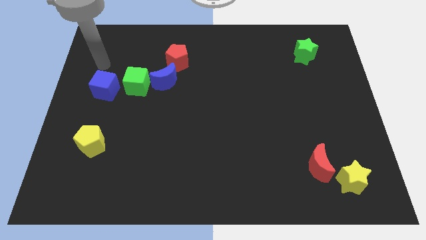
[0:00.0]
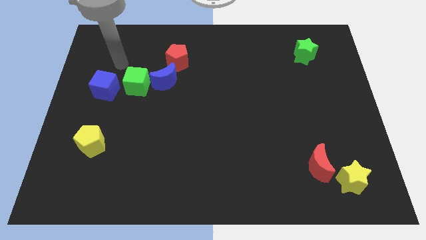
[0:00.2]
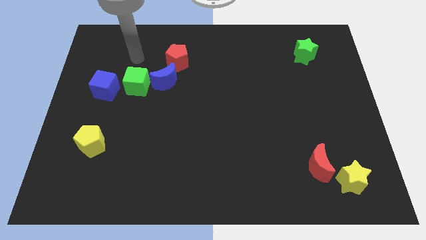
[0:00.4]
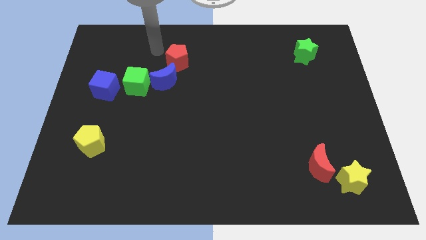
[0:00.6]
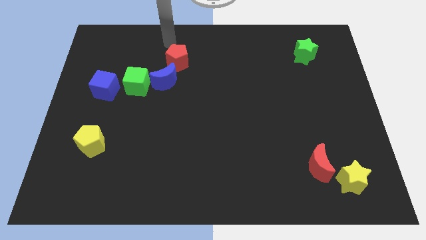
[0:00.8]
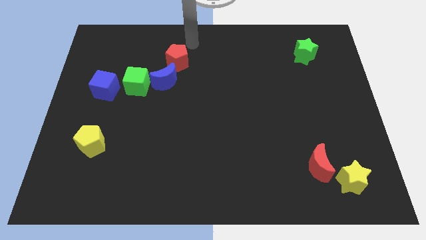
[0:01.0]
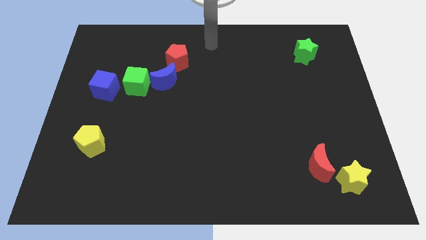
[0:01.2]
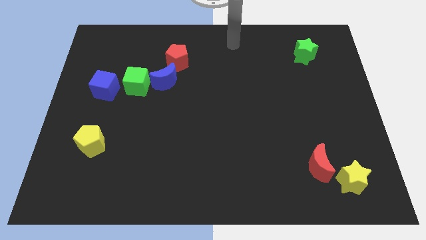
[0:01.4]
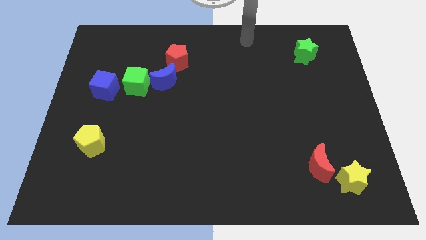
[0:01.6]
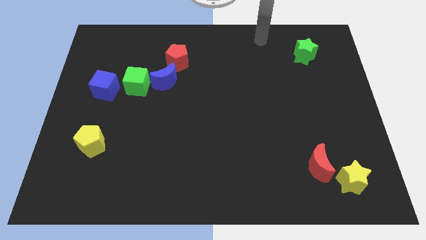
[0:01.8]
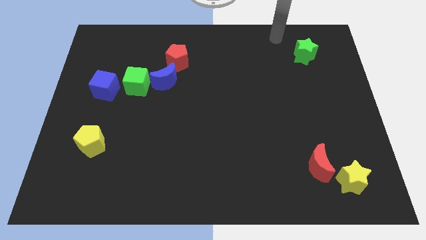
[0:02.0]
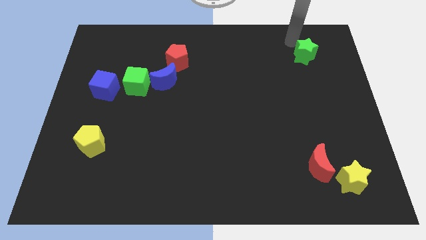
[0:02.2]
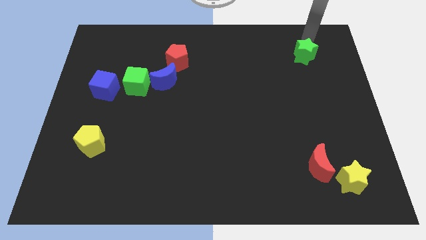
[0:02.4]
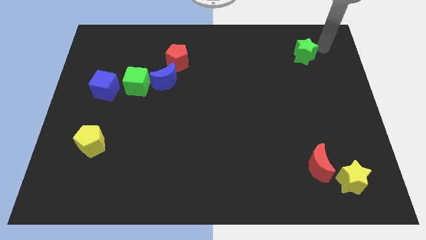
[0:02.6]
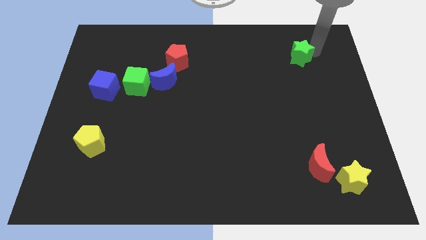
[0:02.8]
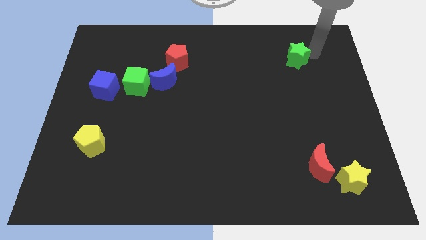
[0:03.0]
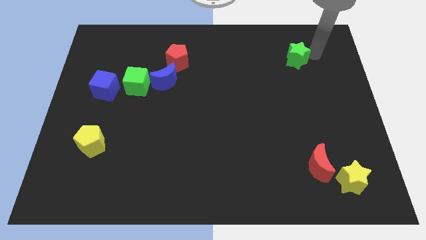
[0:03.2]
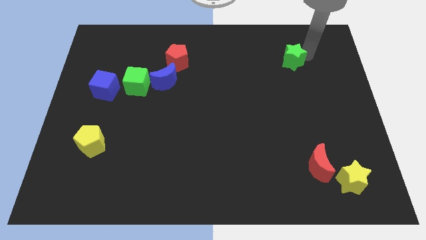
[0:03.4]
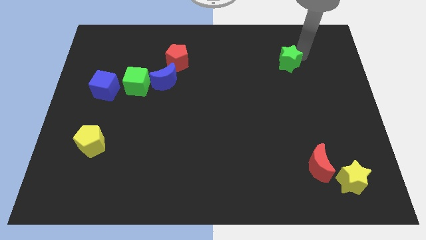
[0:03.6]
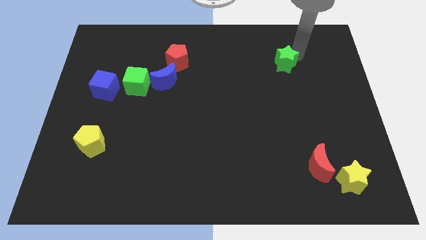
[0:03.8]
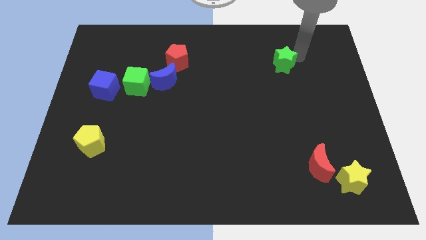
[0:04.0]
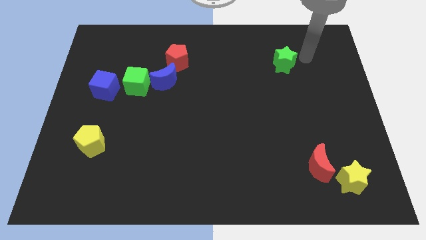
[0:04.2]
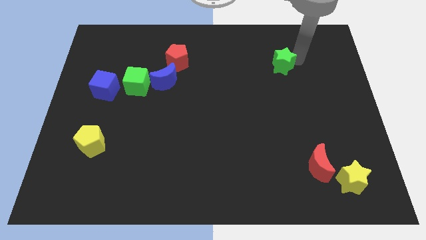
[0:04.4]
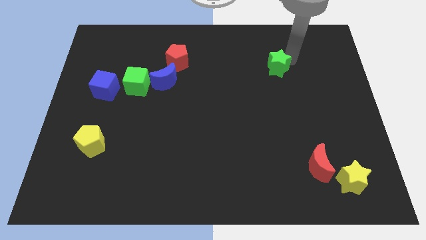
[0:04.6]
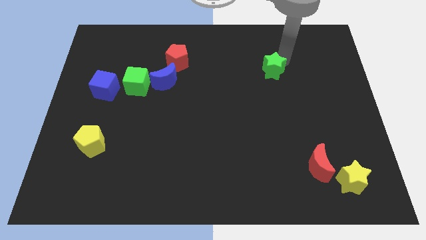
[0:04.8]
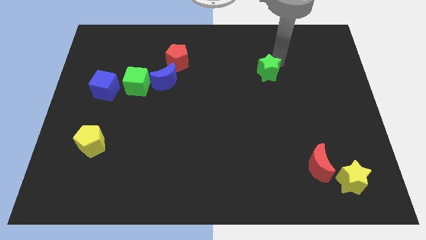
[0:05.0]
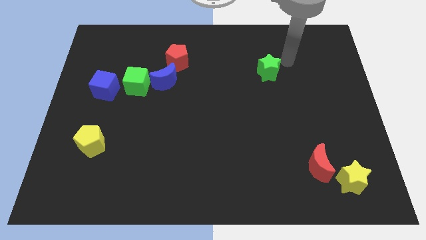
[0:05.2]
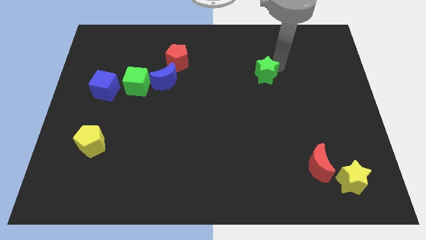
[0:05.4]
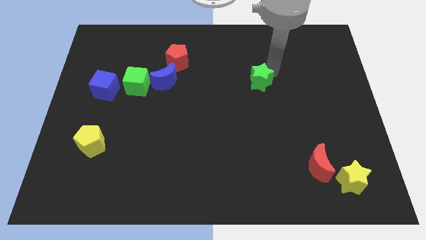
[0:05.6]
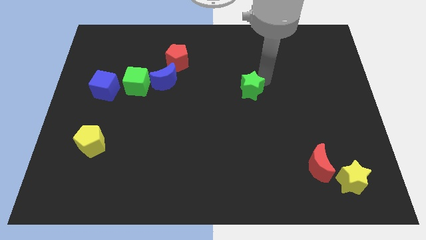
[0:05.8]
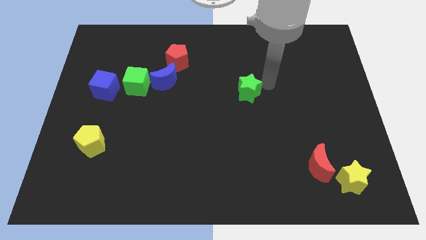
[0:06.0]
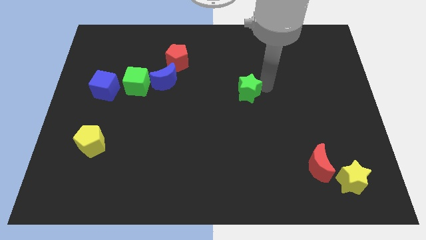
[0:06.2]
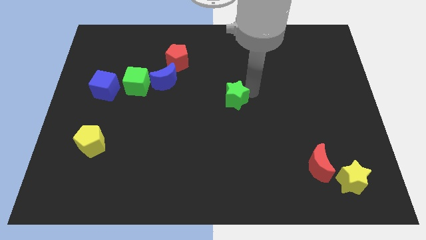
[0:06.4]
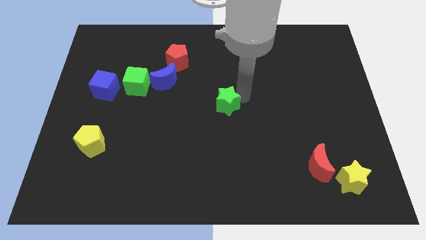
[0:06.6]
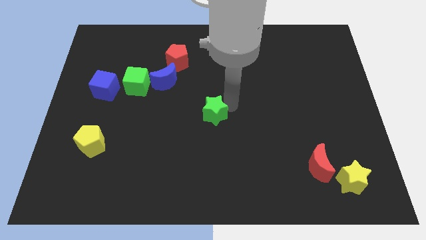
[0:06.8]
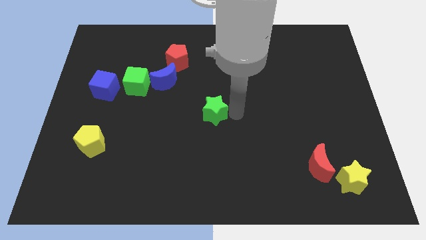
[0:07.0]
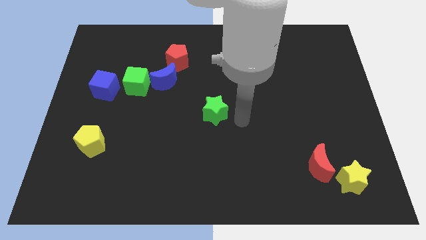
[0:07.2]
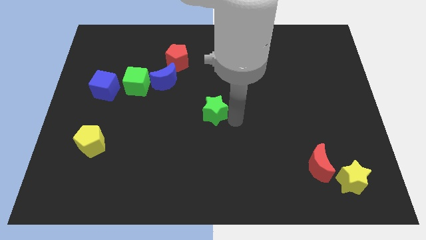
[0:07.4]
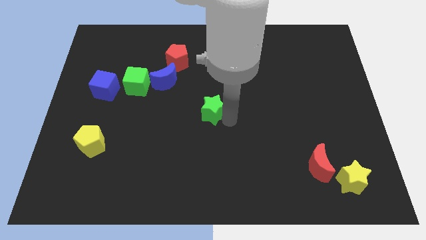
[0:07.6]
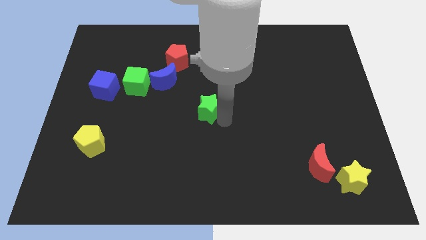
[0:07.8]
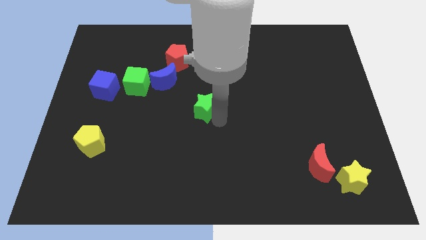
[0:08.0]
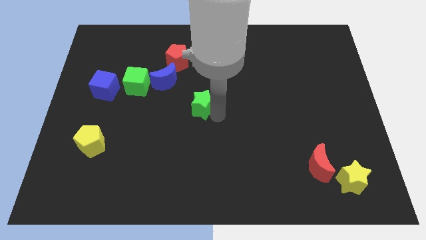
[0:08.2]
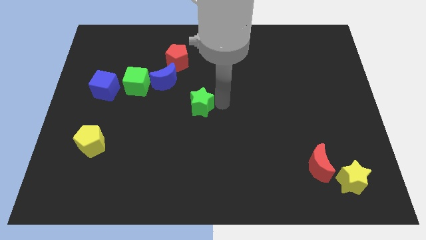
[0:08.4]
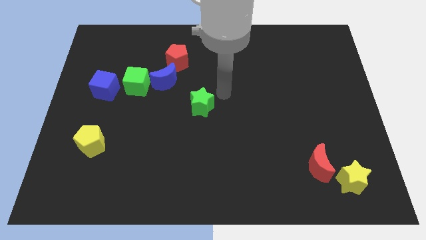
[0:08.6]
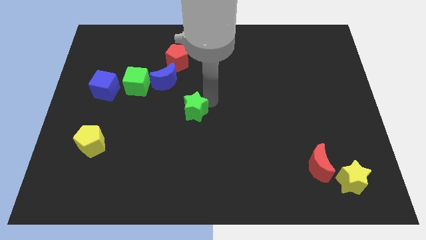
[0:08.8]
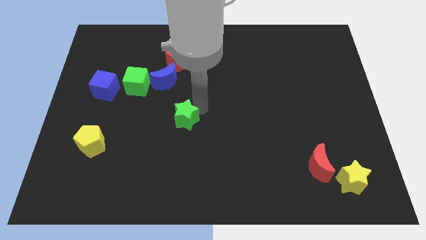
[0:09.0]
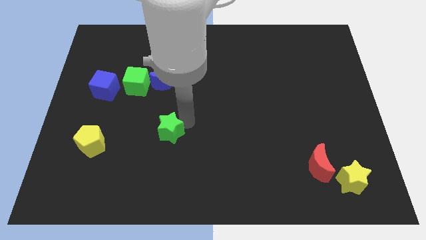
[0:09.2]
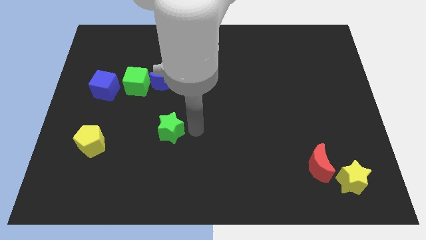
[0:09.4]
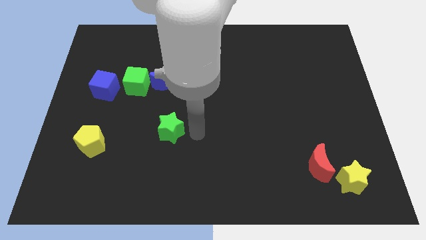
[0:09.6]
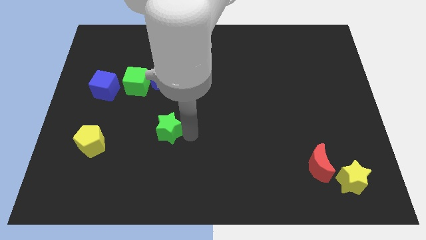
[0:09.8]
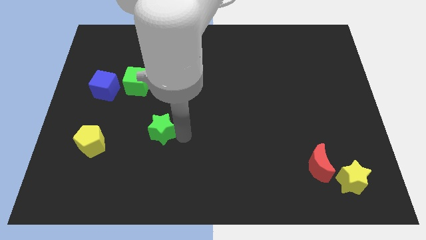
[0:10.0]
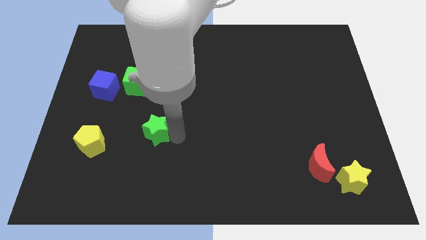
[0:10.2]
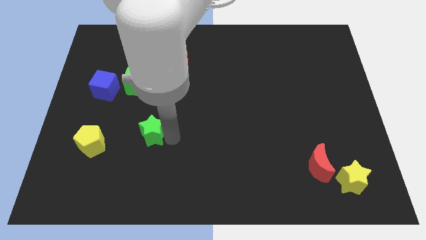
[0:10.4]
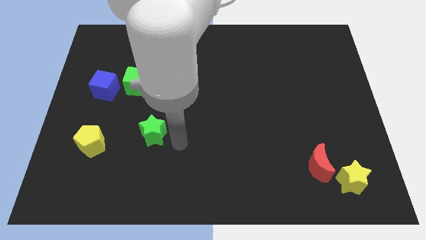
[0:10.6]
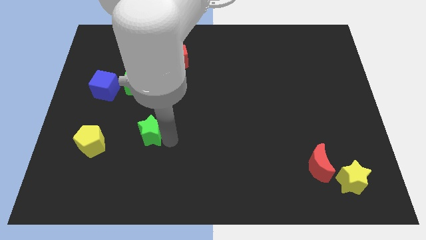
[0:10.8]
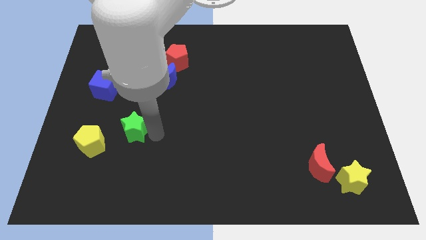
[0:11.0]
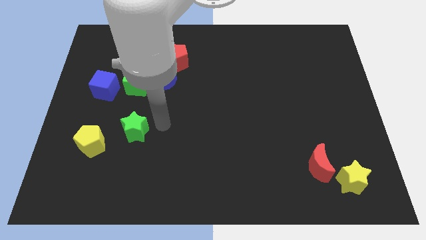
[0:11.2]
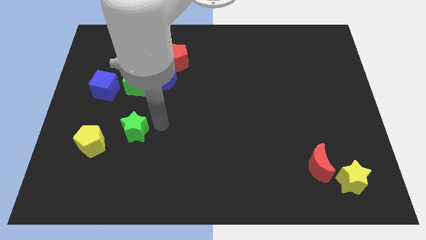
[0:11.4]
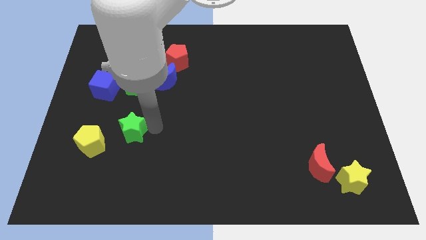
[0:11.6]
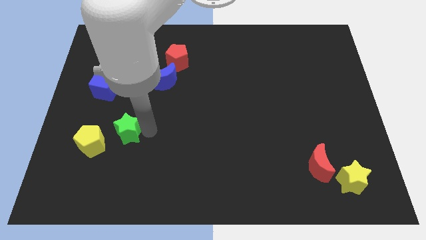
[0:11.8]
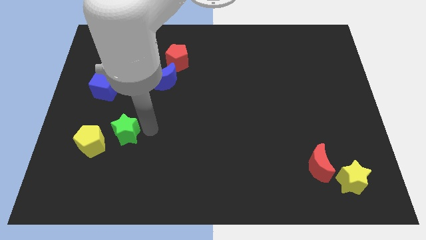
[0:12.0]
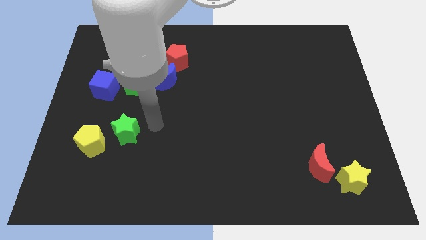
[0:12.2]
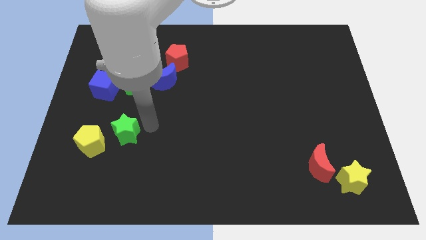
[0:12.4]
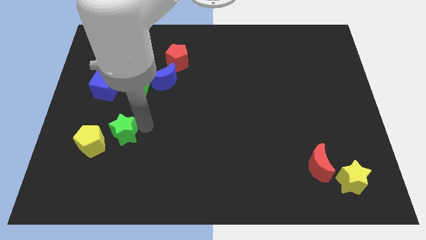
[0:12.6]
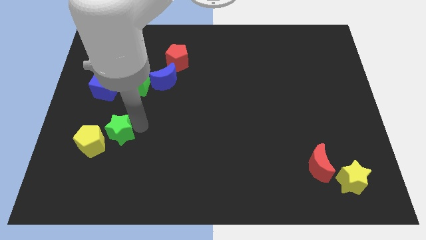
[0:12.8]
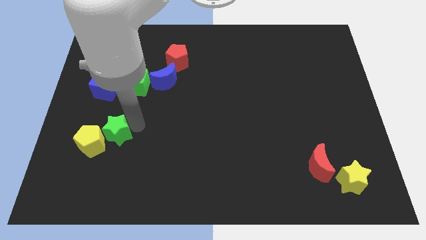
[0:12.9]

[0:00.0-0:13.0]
push the green star to the yellow pentagon
